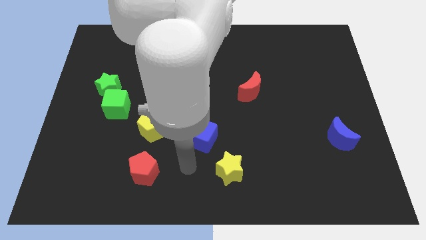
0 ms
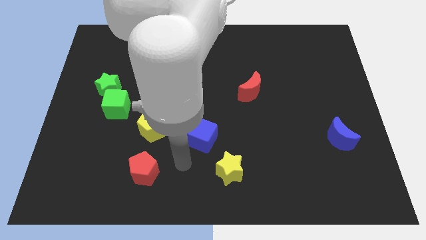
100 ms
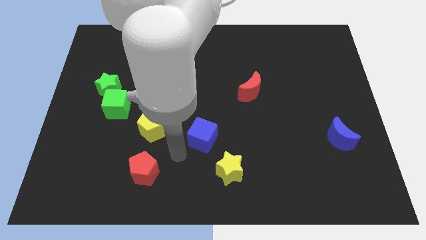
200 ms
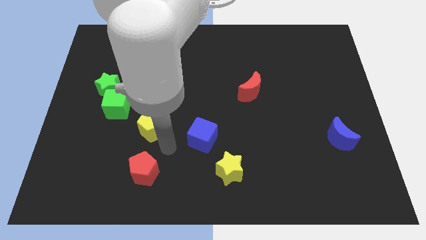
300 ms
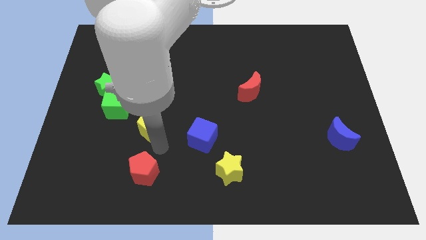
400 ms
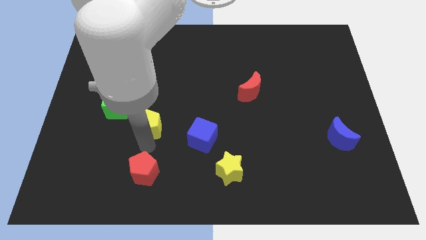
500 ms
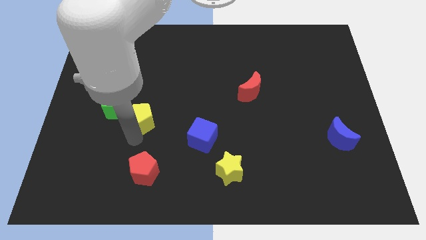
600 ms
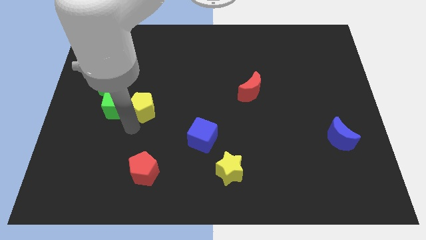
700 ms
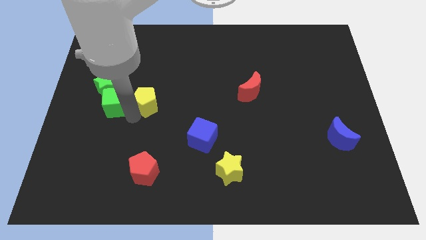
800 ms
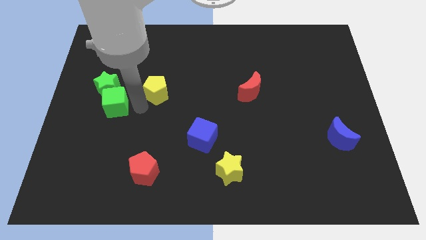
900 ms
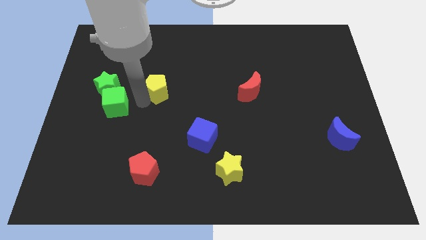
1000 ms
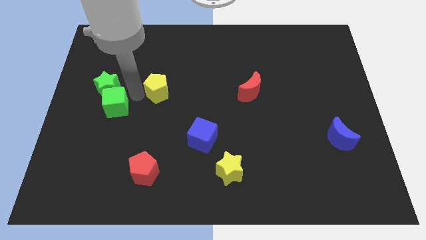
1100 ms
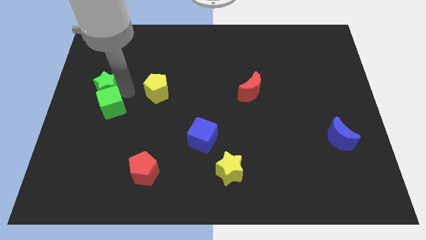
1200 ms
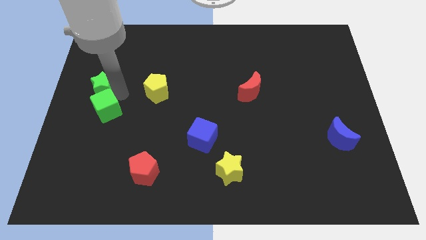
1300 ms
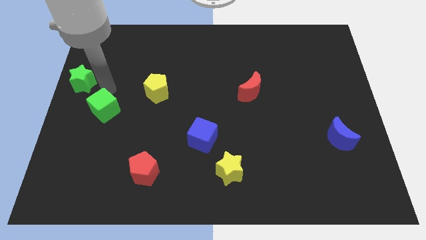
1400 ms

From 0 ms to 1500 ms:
separate the green cube from the green star

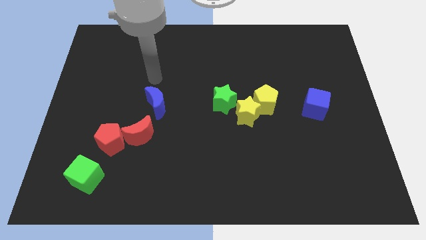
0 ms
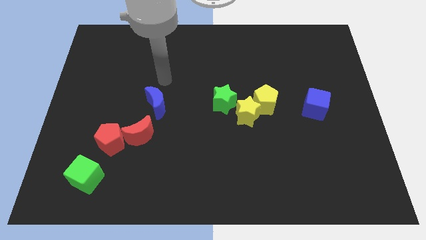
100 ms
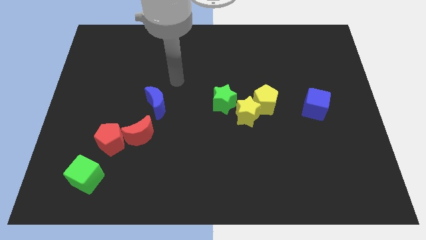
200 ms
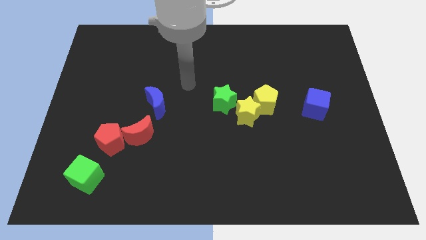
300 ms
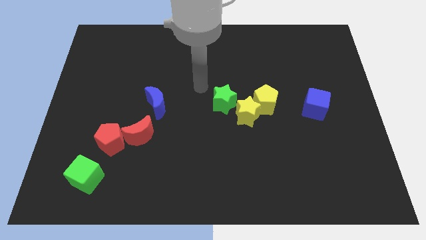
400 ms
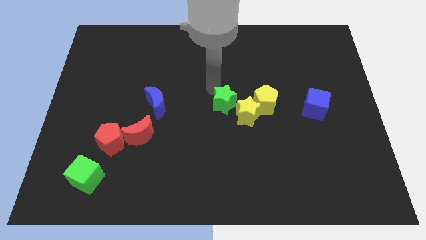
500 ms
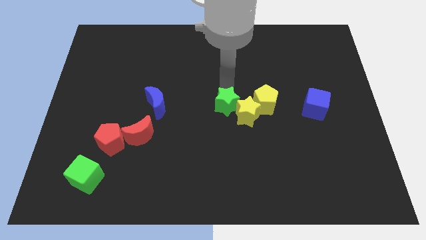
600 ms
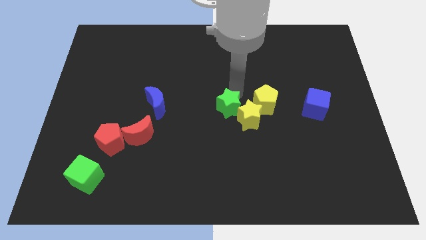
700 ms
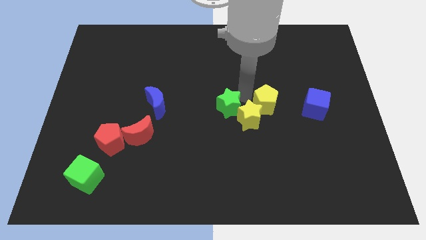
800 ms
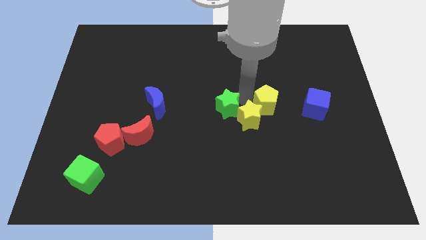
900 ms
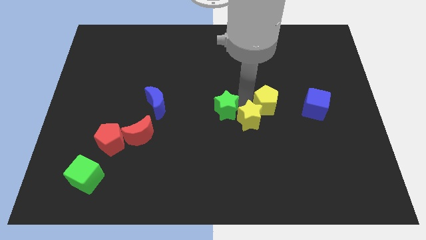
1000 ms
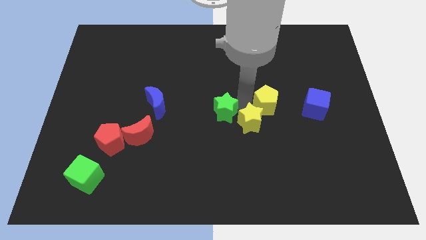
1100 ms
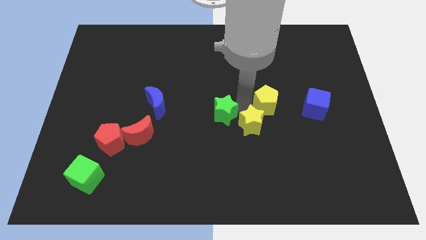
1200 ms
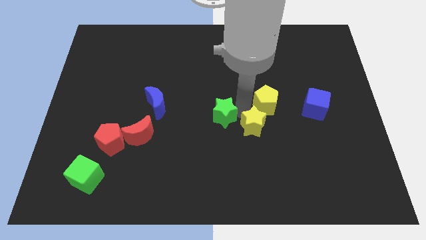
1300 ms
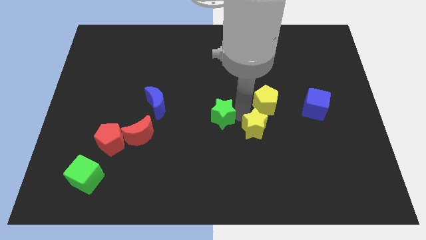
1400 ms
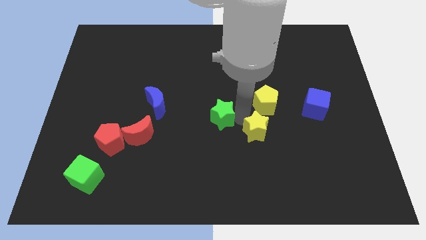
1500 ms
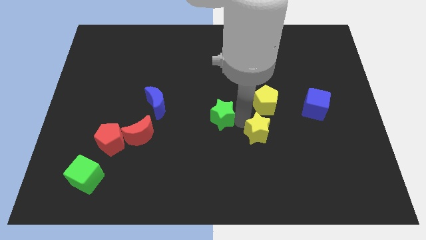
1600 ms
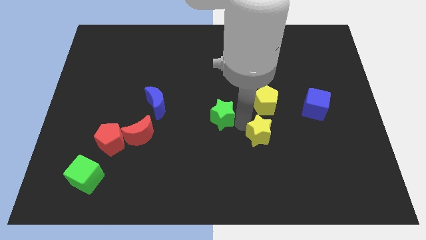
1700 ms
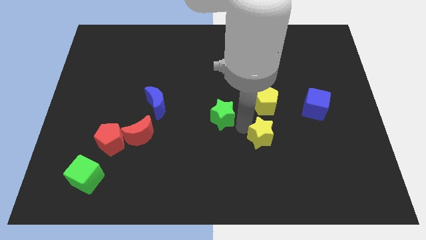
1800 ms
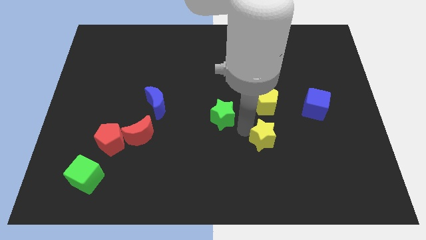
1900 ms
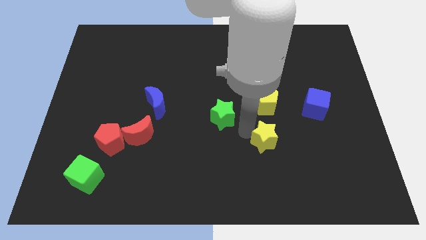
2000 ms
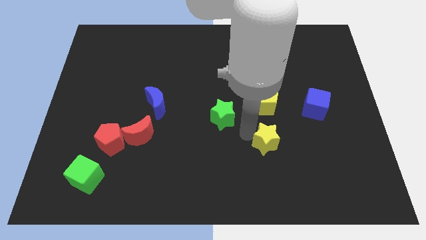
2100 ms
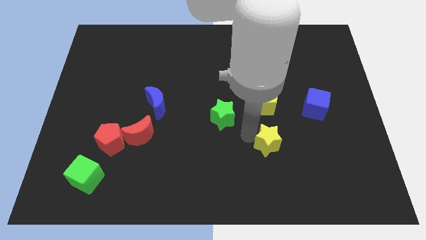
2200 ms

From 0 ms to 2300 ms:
separate the yellow star from the yellow pentagon and green star

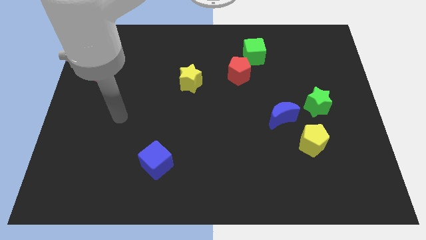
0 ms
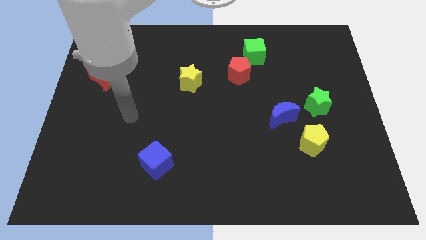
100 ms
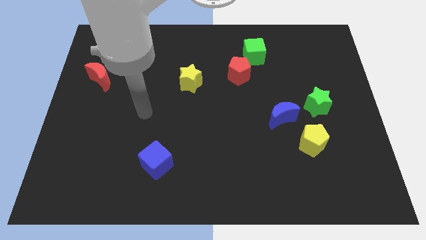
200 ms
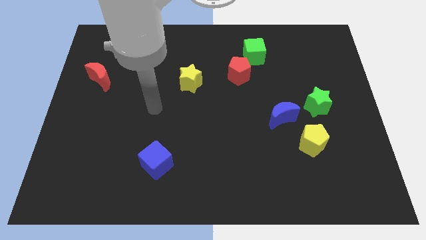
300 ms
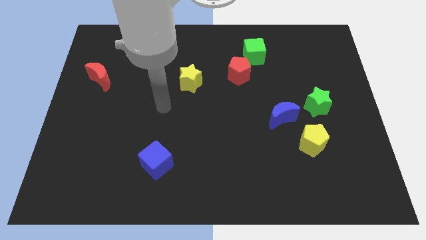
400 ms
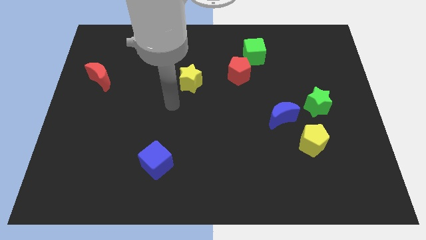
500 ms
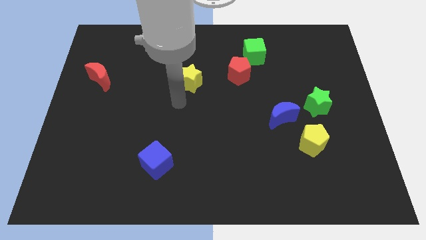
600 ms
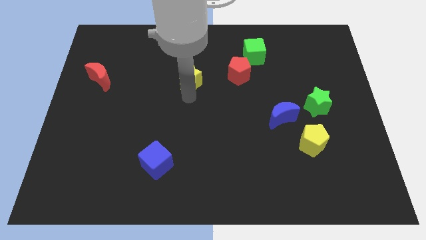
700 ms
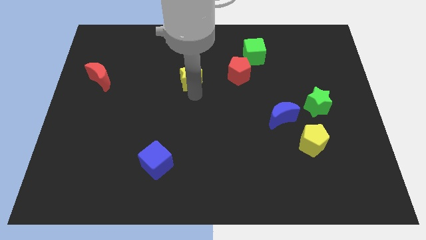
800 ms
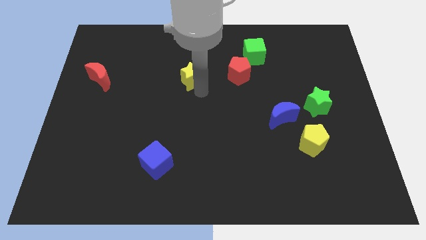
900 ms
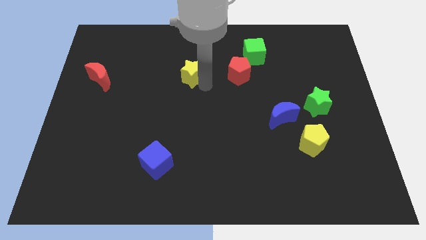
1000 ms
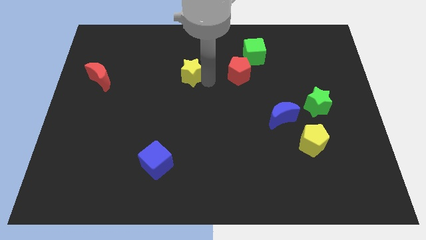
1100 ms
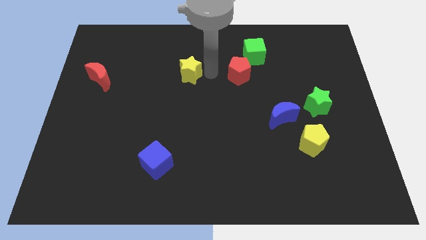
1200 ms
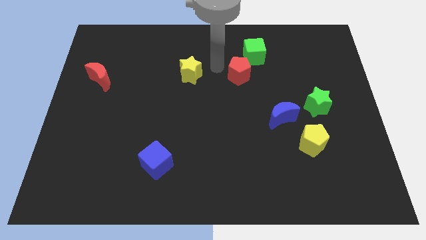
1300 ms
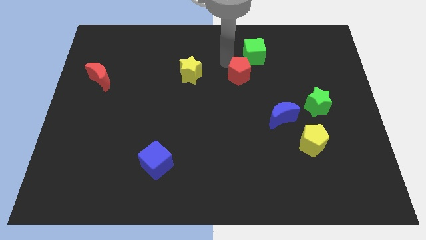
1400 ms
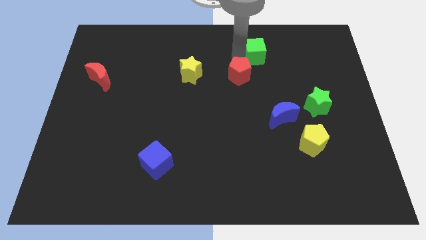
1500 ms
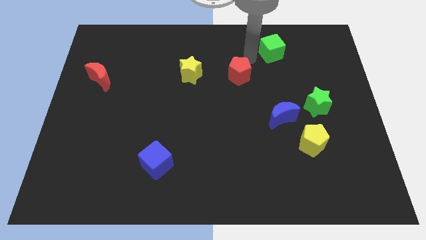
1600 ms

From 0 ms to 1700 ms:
move the red pentagon away from the green cube

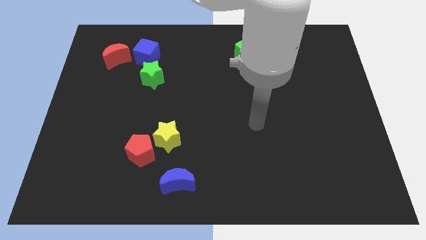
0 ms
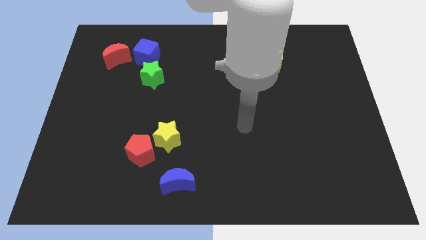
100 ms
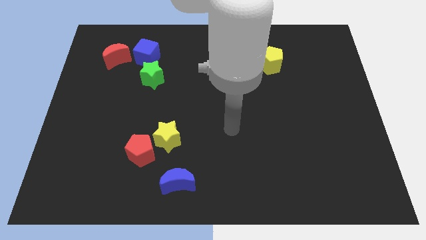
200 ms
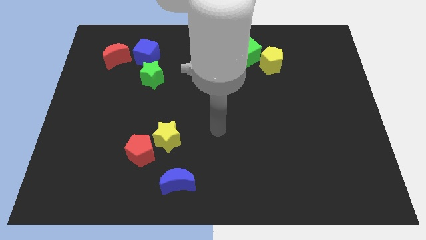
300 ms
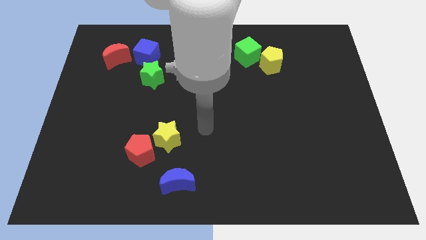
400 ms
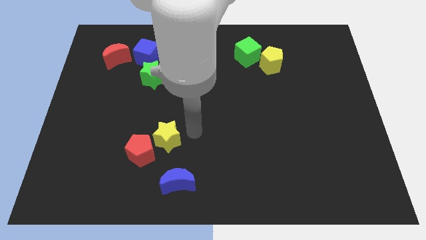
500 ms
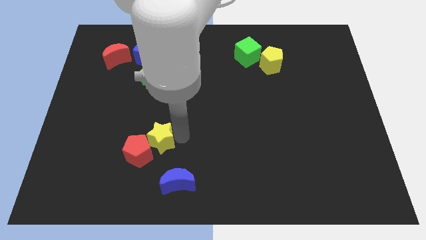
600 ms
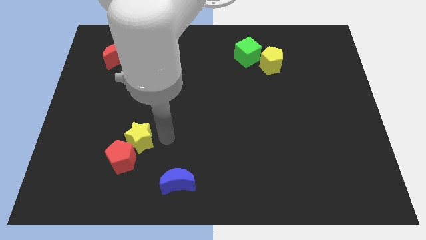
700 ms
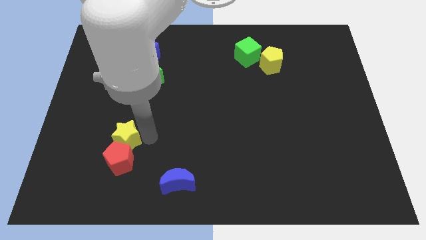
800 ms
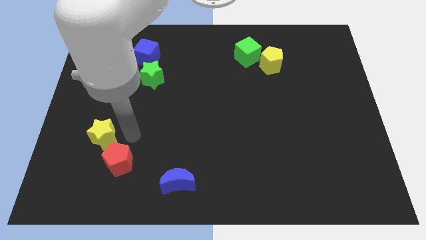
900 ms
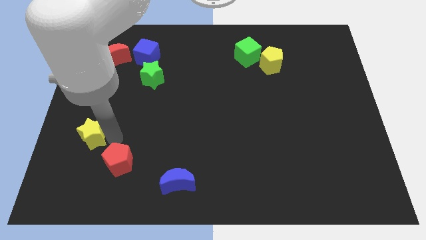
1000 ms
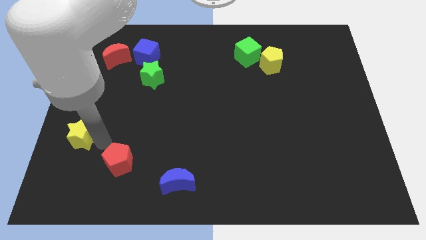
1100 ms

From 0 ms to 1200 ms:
move the red pentagon away from the yellow star

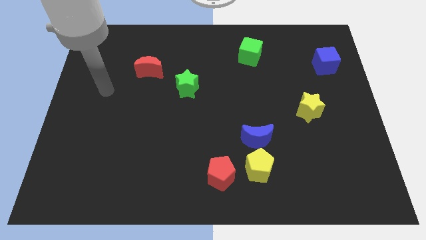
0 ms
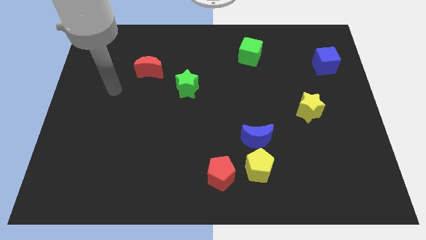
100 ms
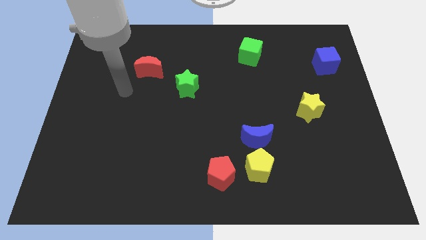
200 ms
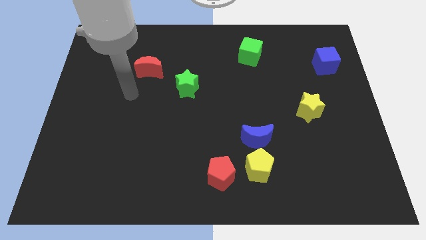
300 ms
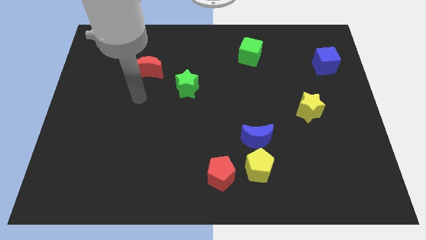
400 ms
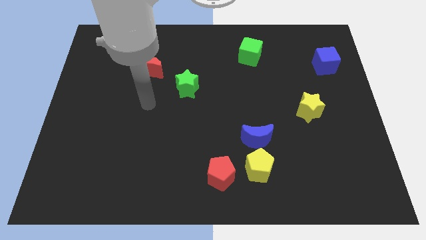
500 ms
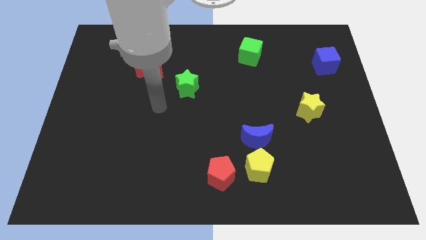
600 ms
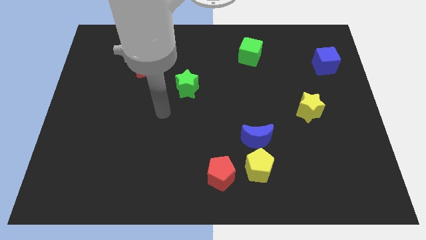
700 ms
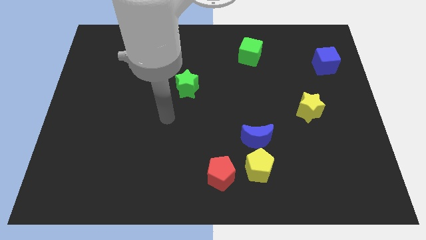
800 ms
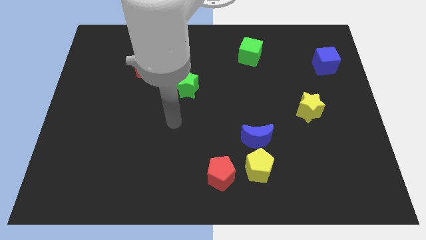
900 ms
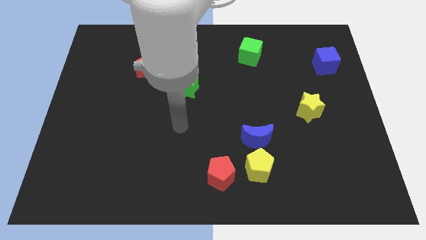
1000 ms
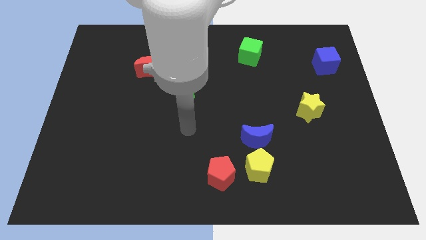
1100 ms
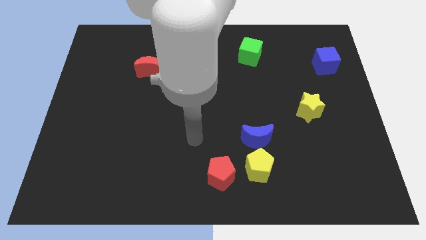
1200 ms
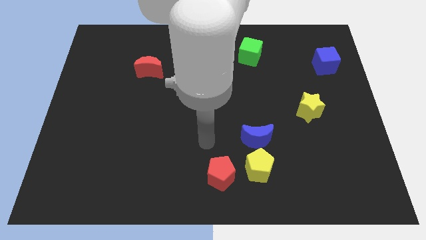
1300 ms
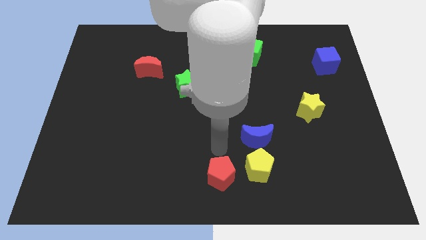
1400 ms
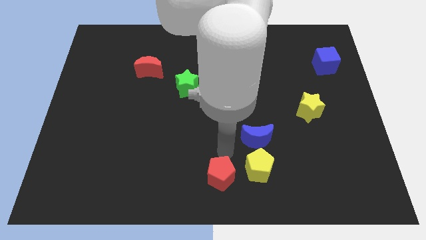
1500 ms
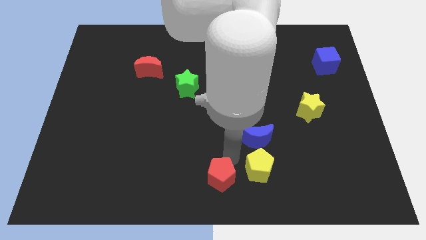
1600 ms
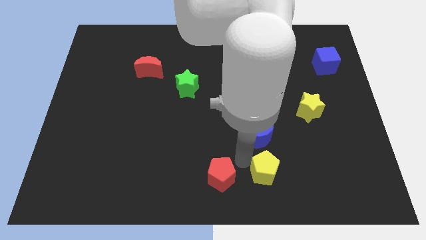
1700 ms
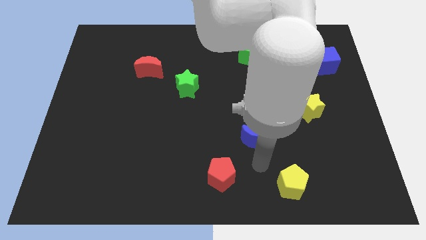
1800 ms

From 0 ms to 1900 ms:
move the blue moon away from the yellow pentagon

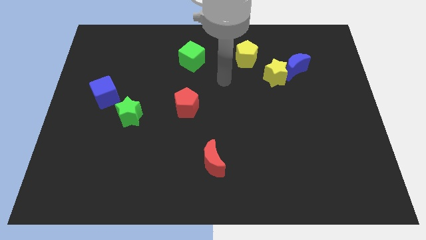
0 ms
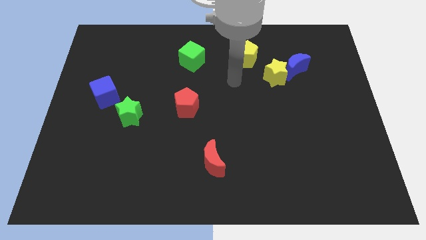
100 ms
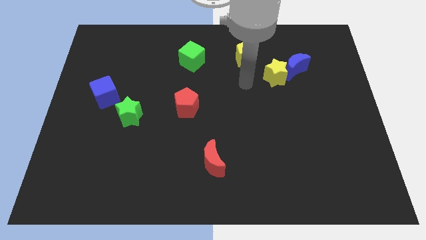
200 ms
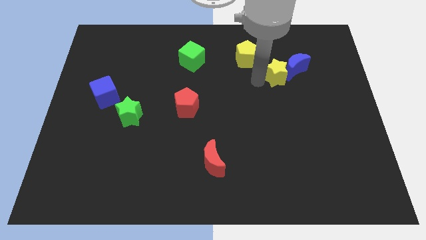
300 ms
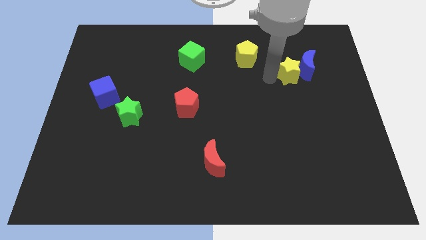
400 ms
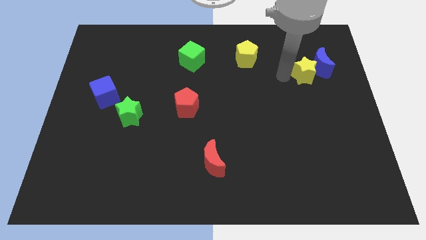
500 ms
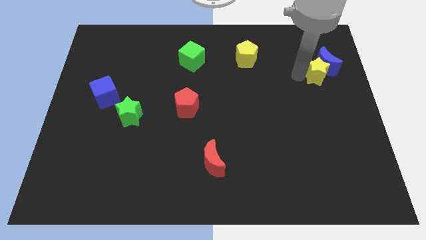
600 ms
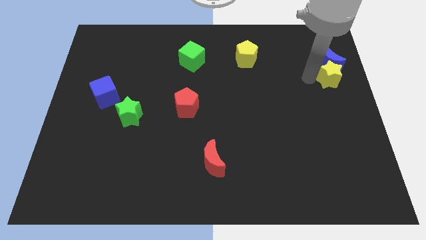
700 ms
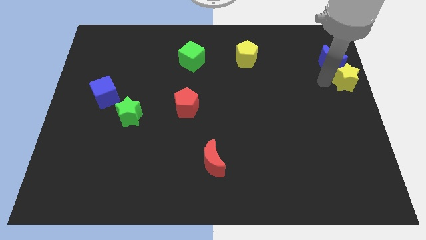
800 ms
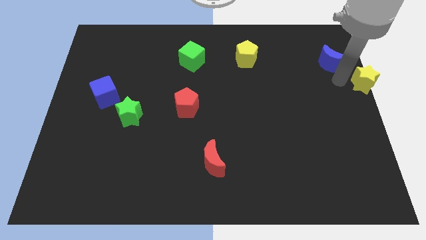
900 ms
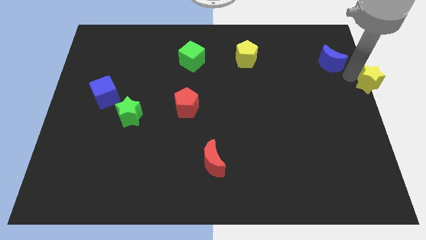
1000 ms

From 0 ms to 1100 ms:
separate the blue moon from the yellow star
